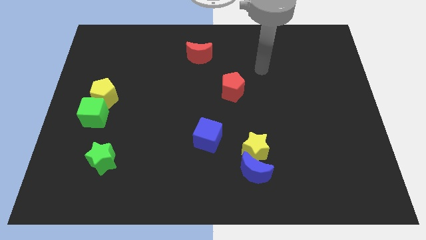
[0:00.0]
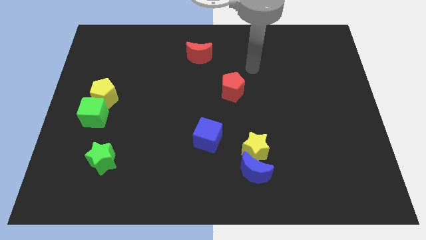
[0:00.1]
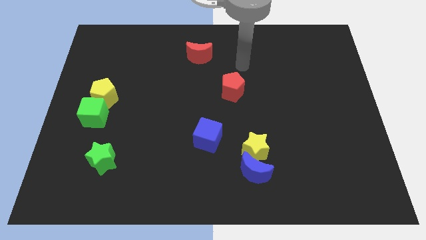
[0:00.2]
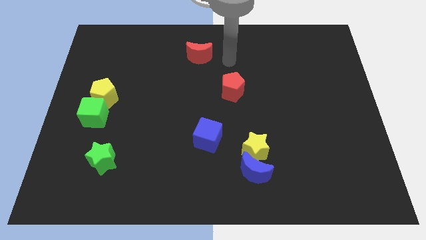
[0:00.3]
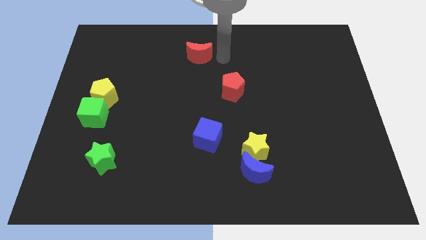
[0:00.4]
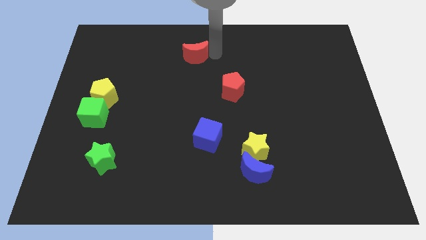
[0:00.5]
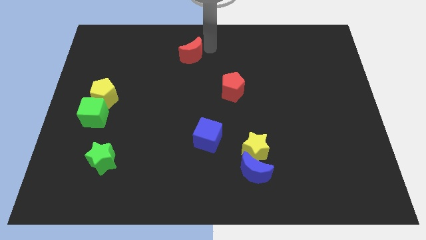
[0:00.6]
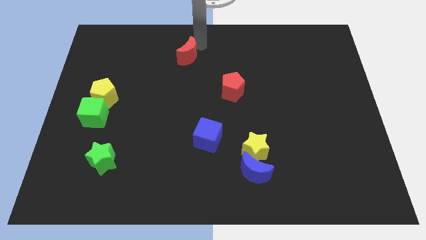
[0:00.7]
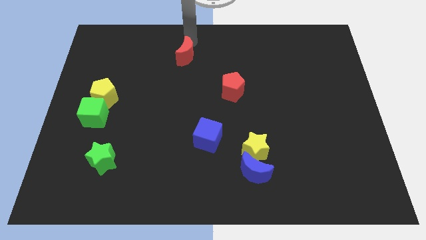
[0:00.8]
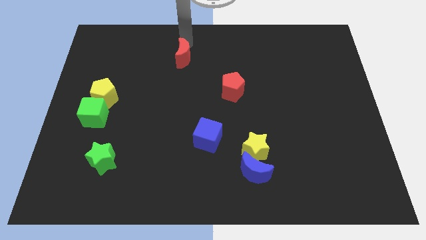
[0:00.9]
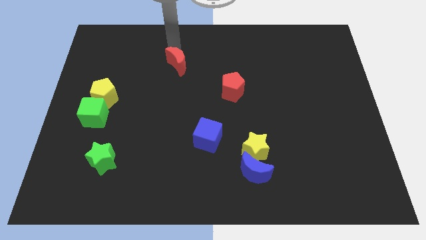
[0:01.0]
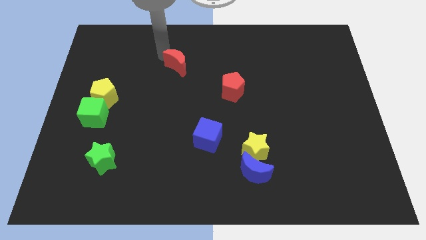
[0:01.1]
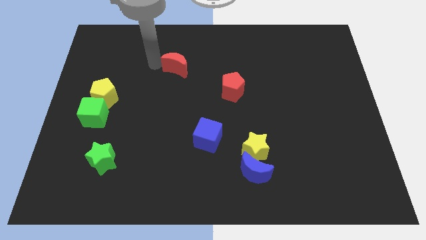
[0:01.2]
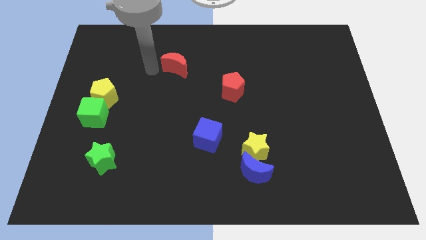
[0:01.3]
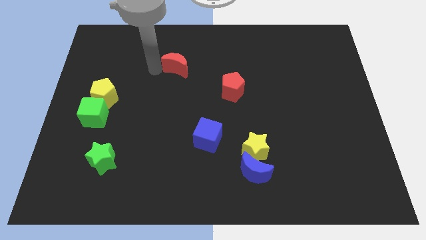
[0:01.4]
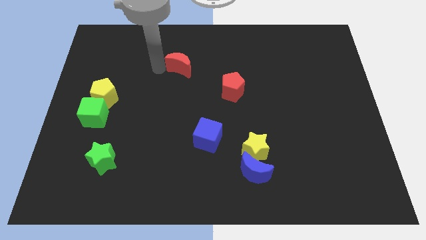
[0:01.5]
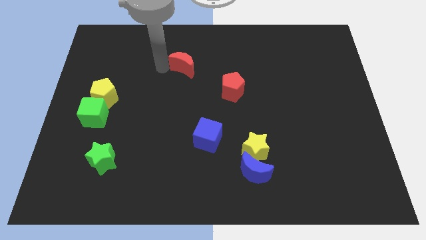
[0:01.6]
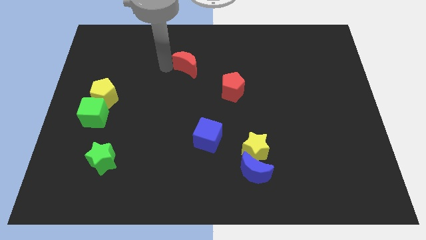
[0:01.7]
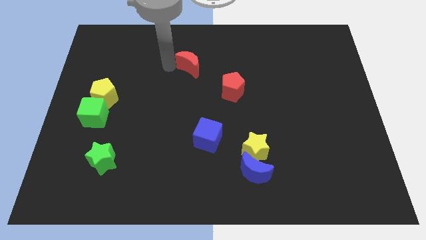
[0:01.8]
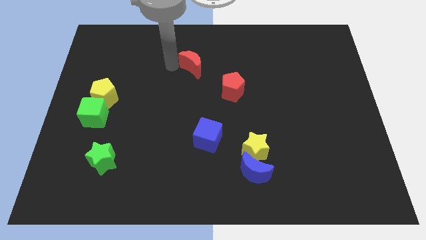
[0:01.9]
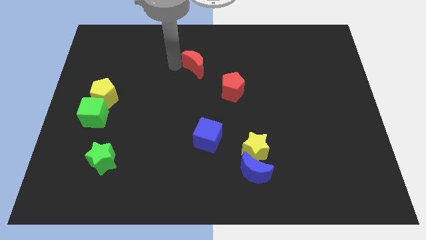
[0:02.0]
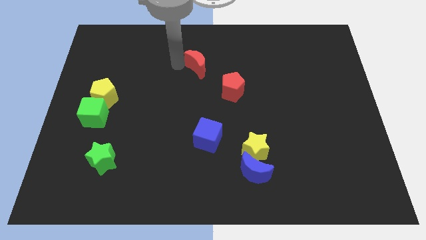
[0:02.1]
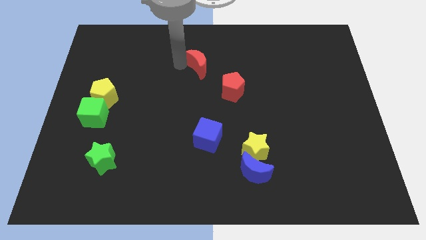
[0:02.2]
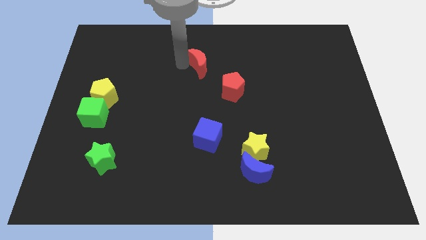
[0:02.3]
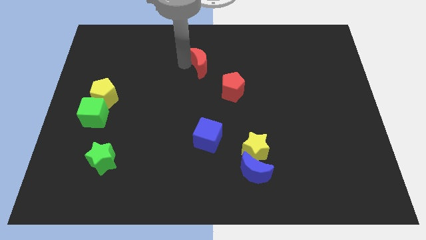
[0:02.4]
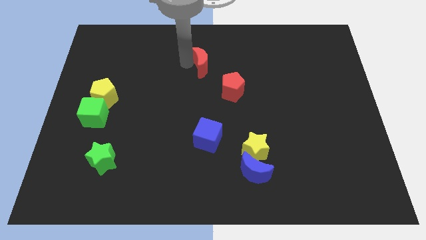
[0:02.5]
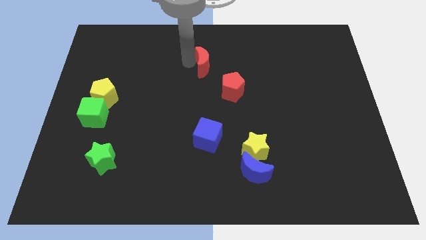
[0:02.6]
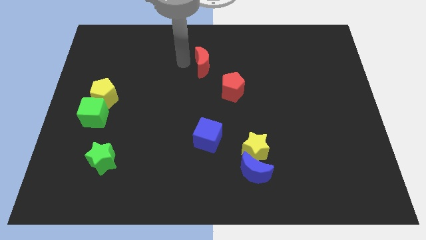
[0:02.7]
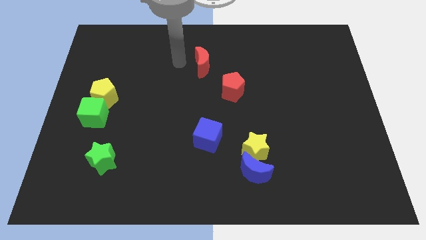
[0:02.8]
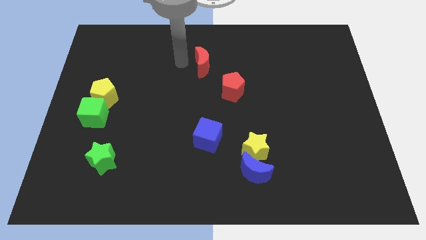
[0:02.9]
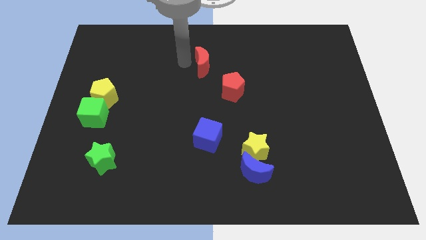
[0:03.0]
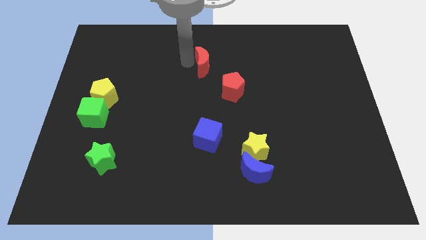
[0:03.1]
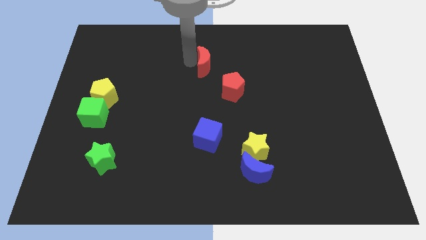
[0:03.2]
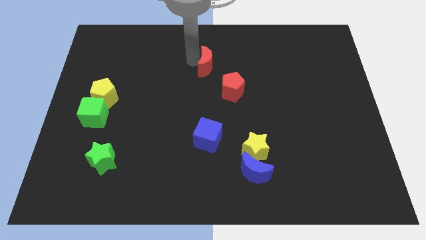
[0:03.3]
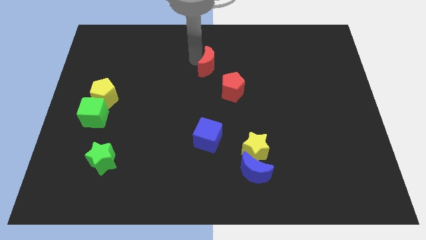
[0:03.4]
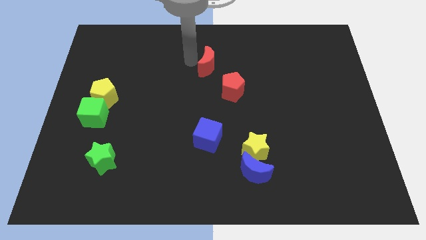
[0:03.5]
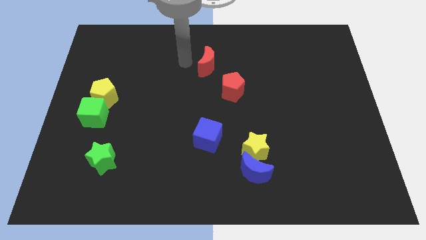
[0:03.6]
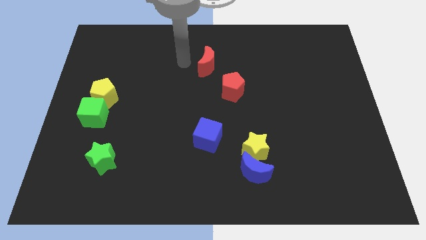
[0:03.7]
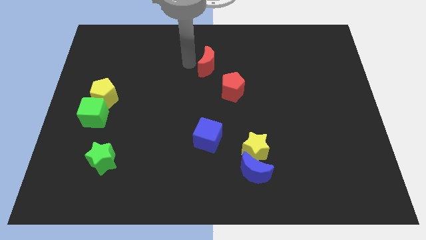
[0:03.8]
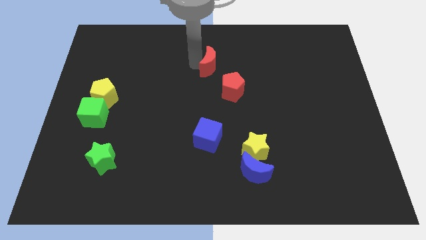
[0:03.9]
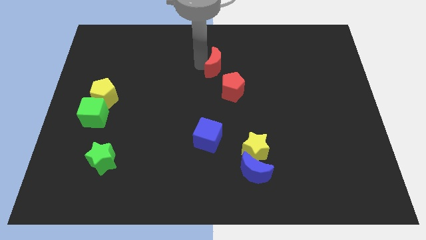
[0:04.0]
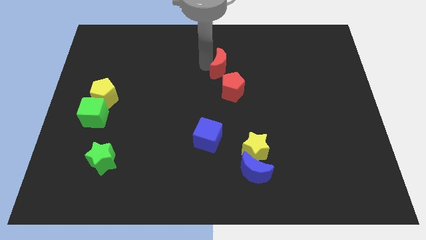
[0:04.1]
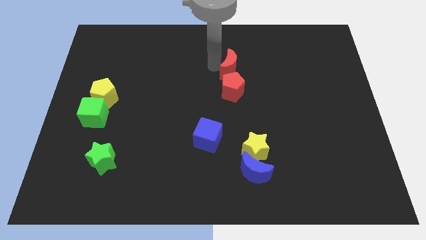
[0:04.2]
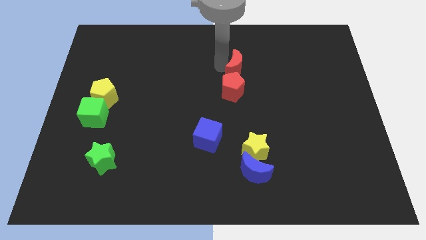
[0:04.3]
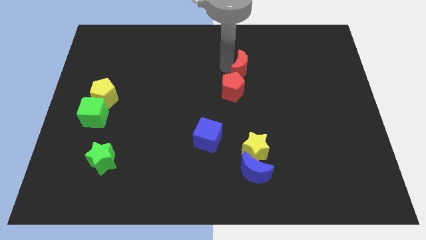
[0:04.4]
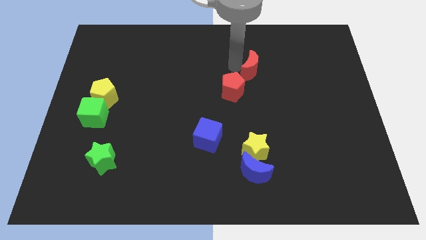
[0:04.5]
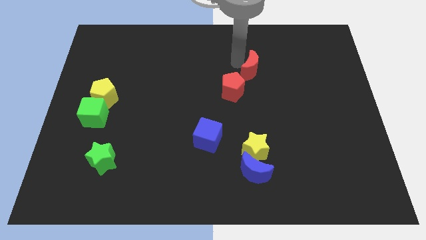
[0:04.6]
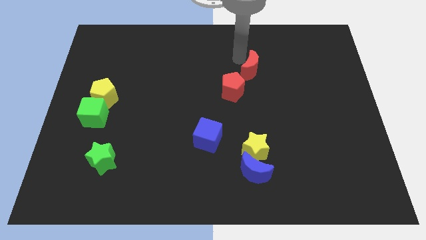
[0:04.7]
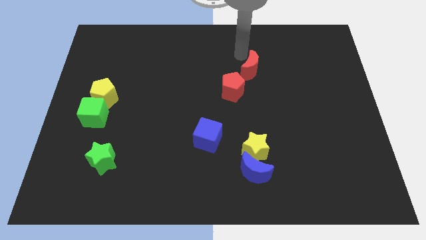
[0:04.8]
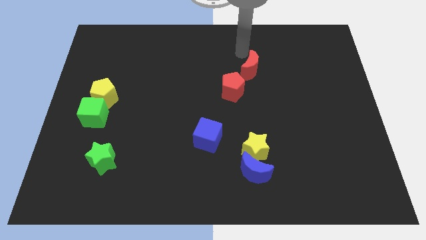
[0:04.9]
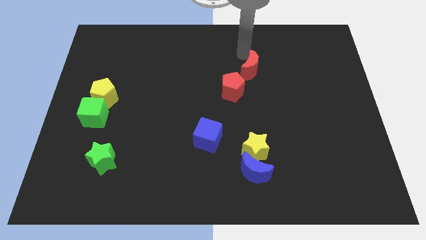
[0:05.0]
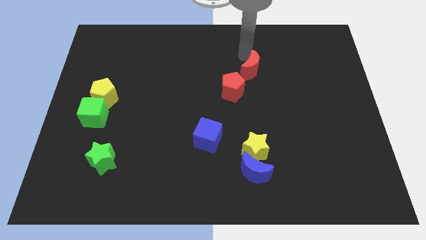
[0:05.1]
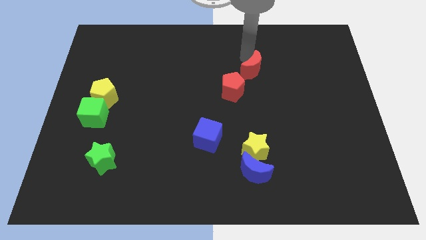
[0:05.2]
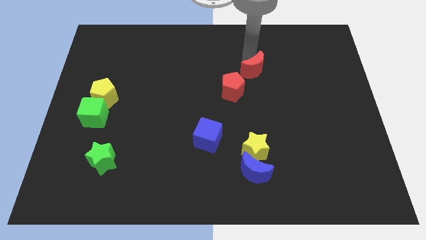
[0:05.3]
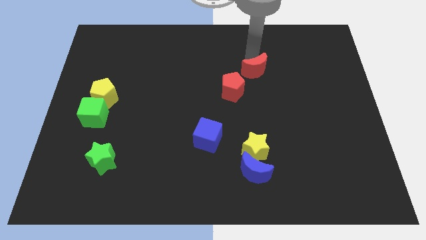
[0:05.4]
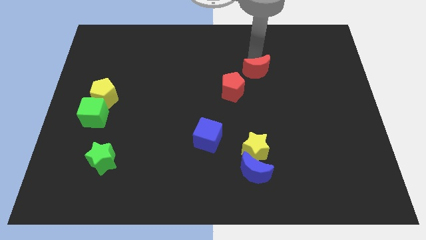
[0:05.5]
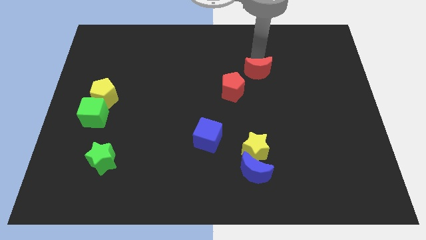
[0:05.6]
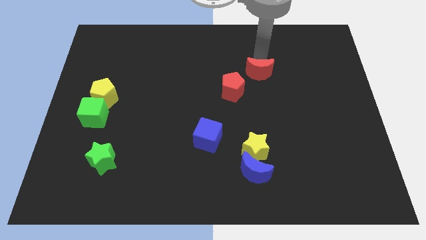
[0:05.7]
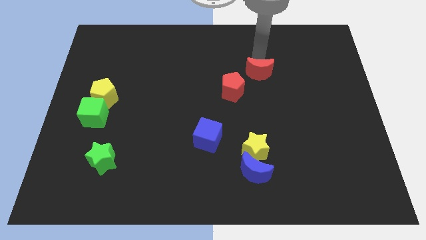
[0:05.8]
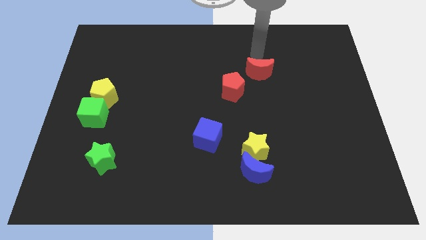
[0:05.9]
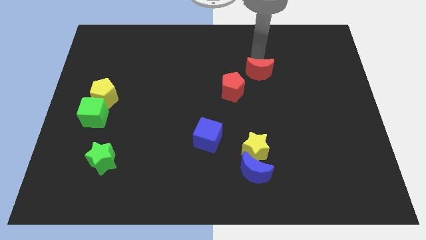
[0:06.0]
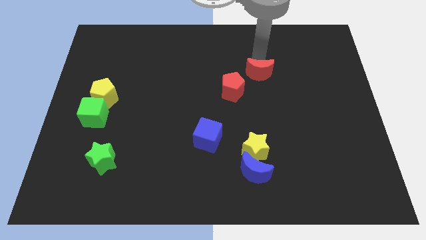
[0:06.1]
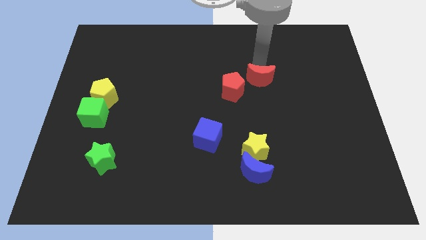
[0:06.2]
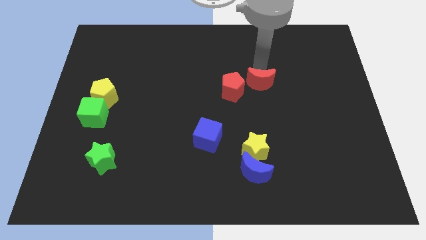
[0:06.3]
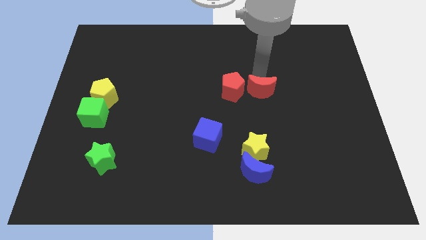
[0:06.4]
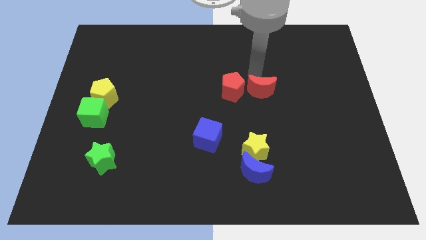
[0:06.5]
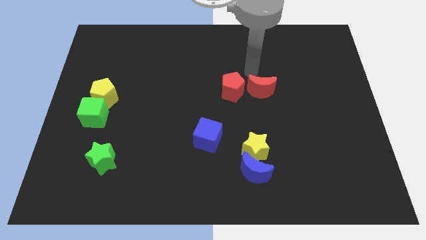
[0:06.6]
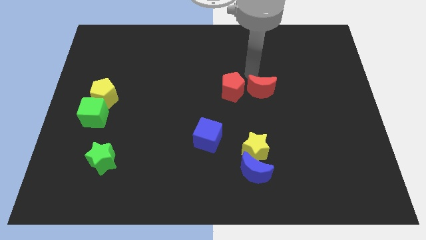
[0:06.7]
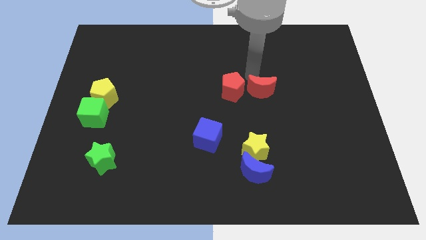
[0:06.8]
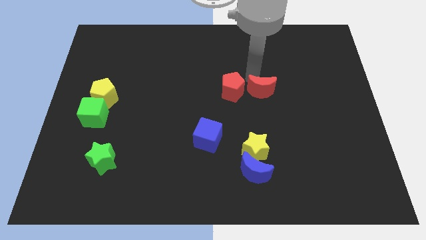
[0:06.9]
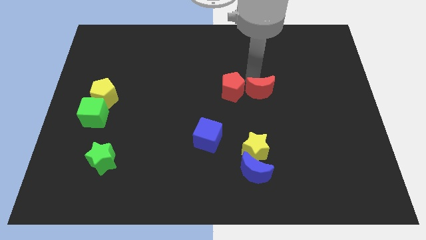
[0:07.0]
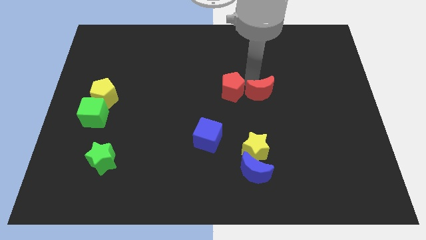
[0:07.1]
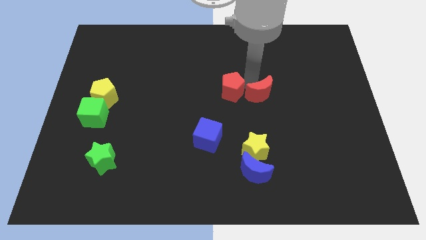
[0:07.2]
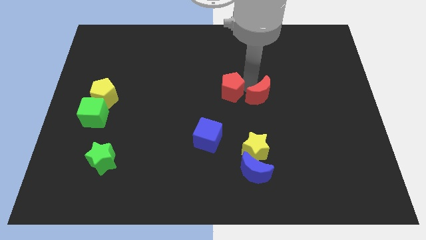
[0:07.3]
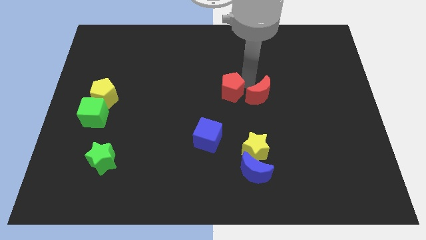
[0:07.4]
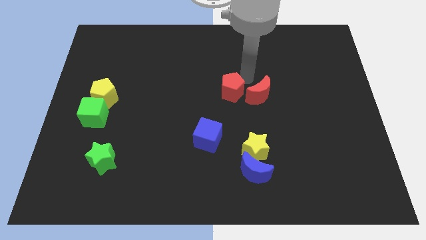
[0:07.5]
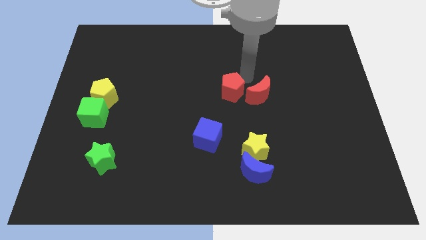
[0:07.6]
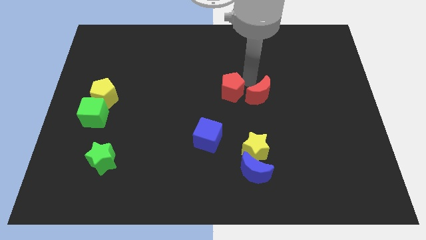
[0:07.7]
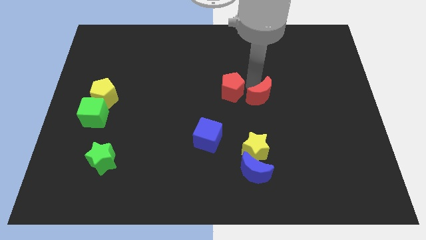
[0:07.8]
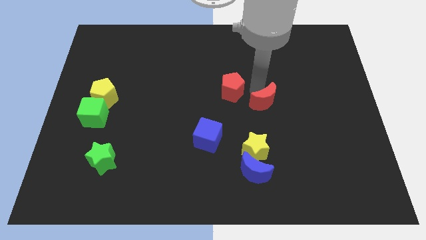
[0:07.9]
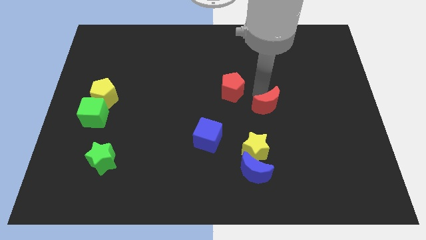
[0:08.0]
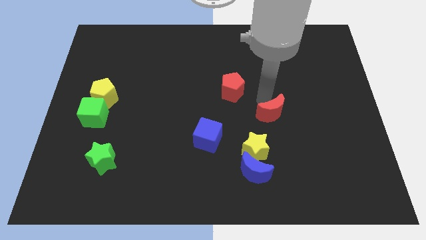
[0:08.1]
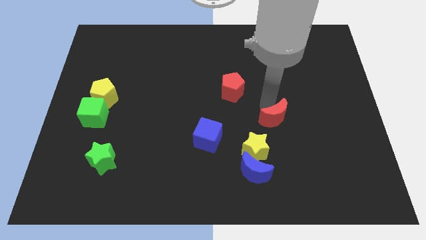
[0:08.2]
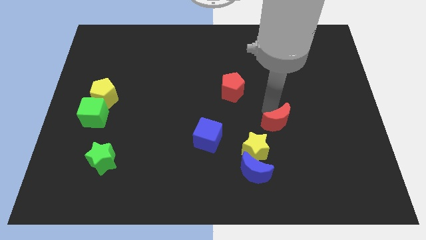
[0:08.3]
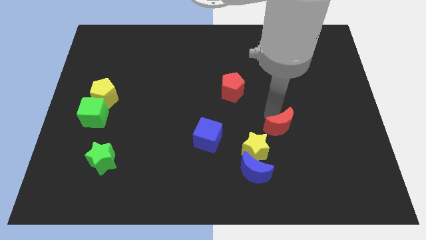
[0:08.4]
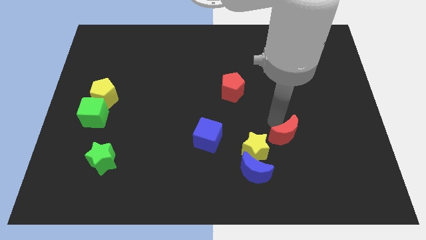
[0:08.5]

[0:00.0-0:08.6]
push the red moon to the right side of the yellow star
